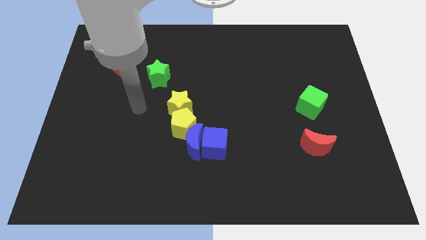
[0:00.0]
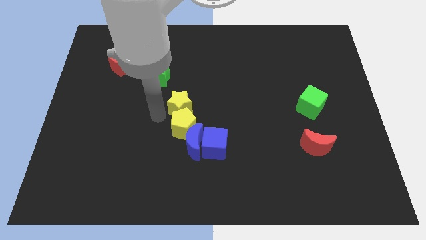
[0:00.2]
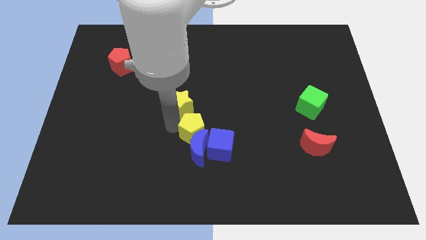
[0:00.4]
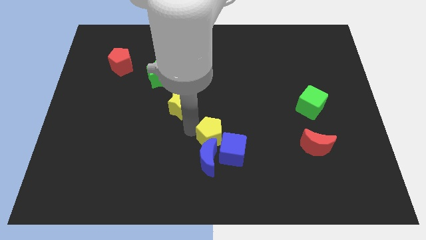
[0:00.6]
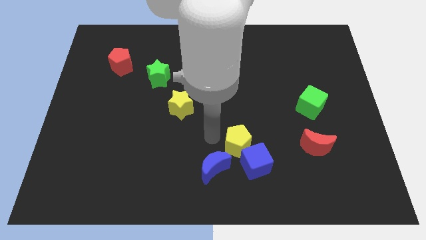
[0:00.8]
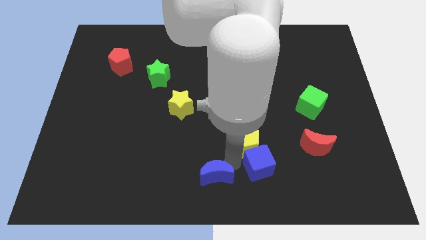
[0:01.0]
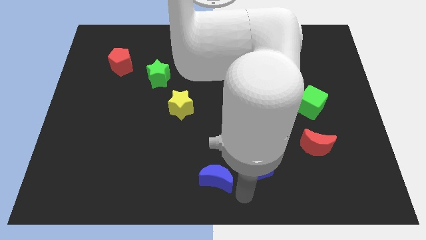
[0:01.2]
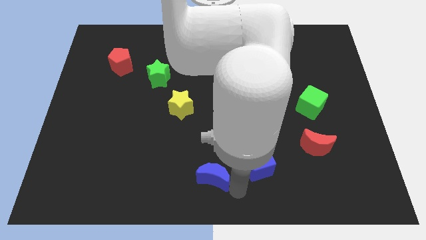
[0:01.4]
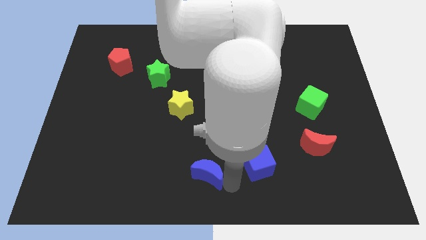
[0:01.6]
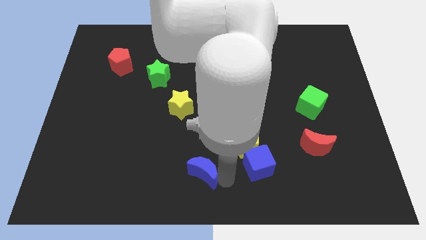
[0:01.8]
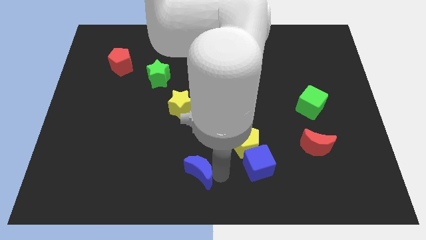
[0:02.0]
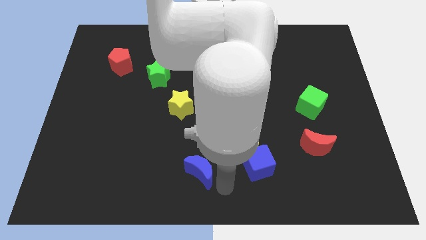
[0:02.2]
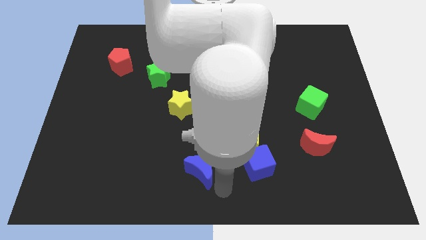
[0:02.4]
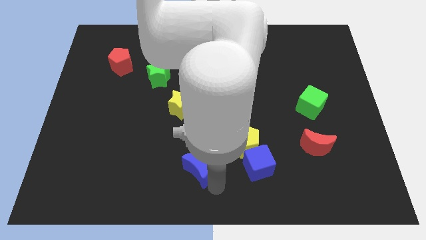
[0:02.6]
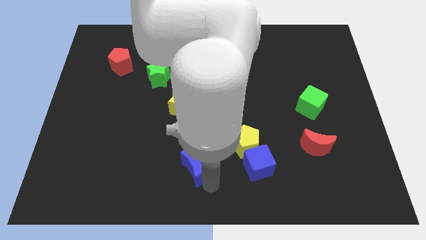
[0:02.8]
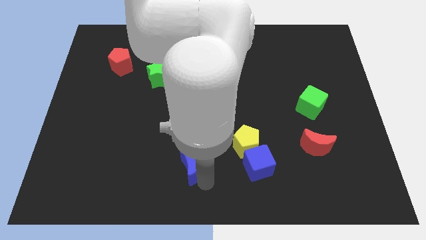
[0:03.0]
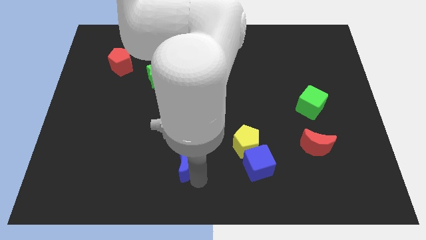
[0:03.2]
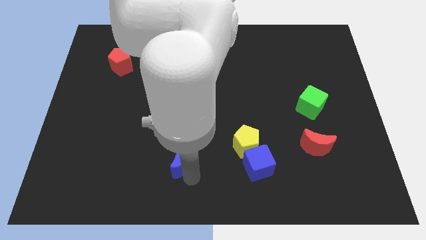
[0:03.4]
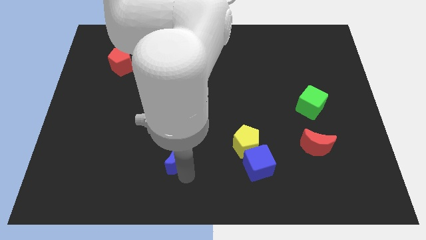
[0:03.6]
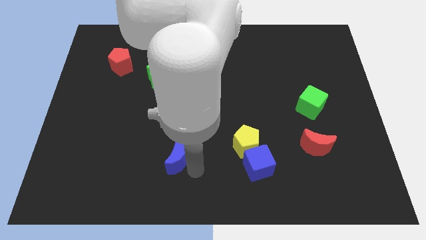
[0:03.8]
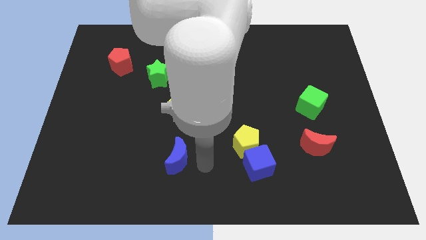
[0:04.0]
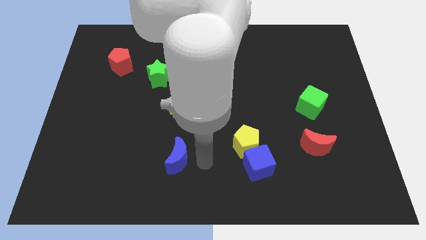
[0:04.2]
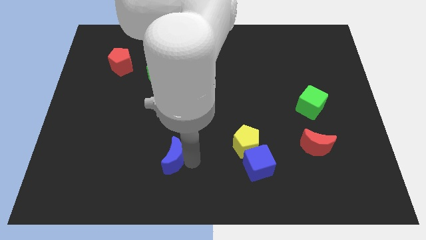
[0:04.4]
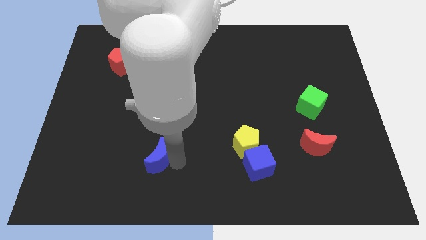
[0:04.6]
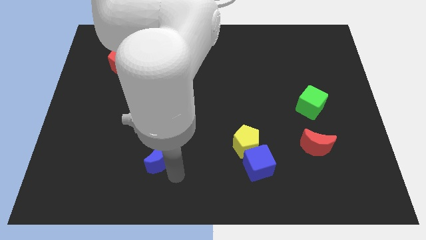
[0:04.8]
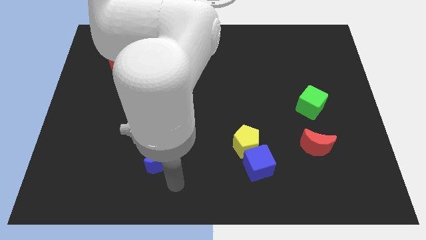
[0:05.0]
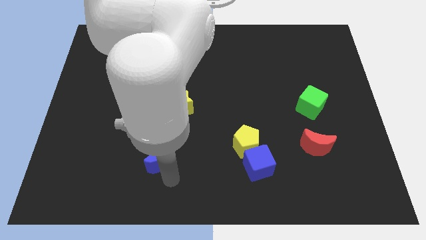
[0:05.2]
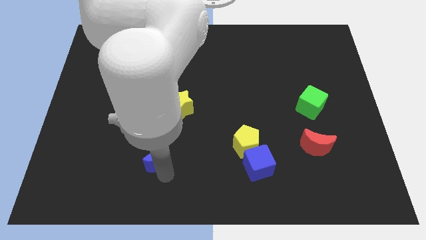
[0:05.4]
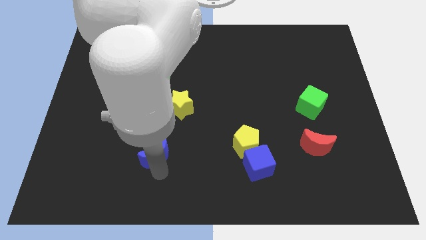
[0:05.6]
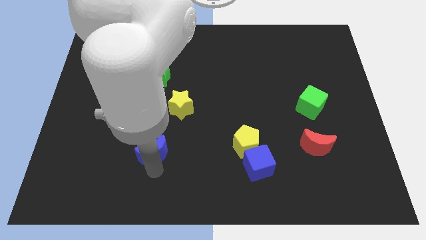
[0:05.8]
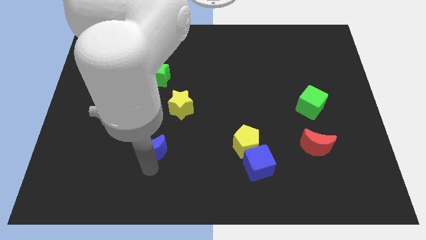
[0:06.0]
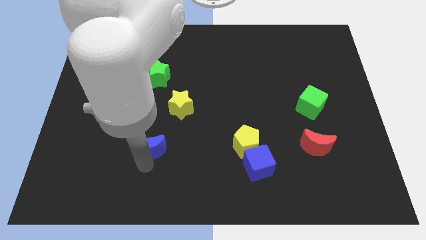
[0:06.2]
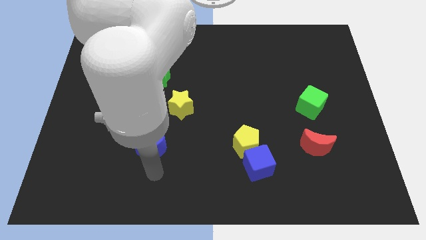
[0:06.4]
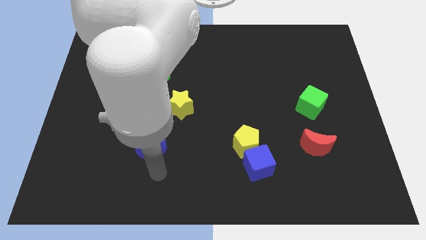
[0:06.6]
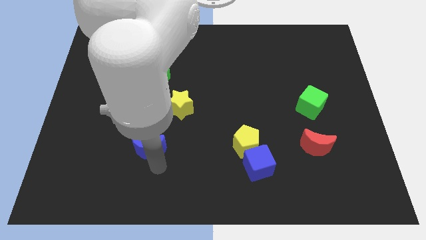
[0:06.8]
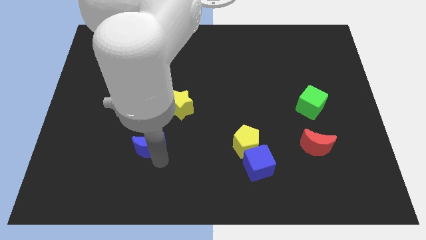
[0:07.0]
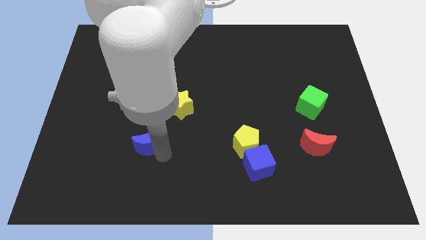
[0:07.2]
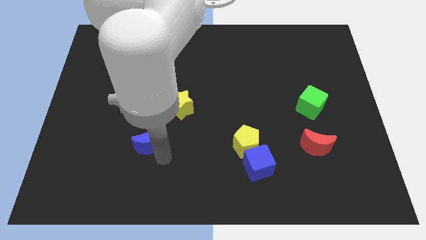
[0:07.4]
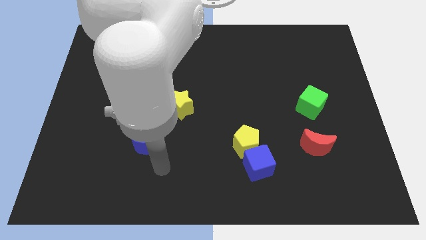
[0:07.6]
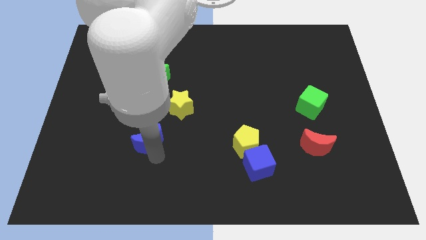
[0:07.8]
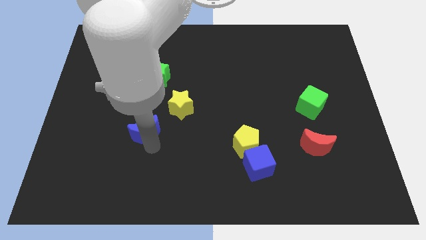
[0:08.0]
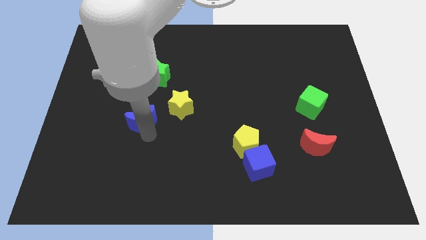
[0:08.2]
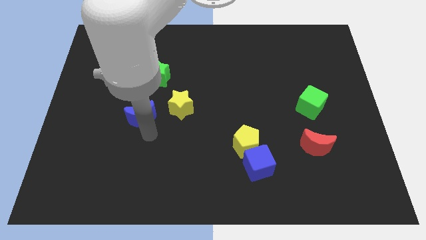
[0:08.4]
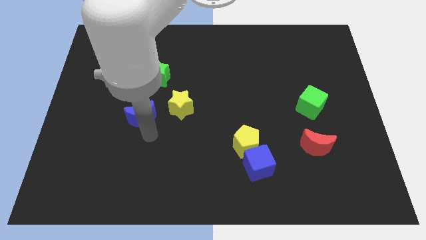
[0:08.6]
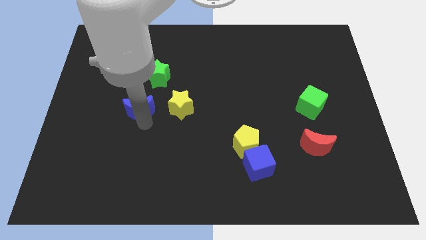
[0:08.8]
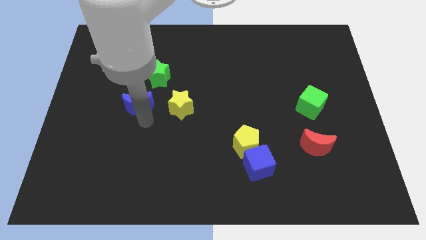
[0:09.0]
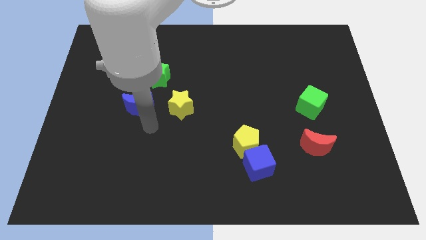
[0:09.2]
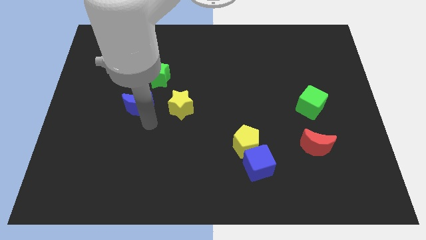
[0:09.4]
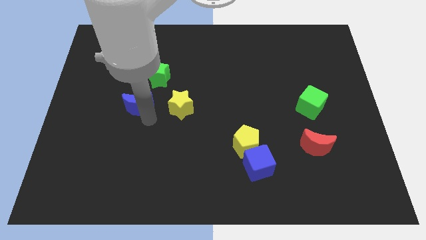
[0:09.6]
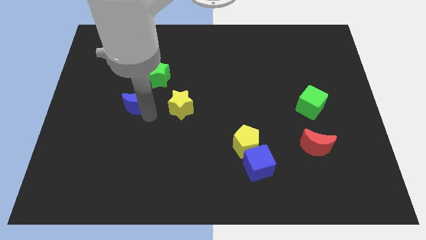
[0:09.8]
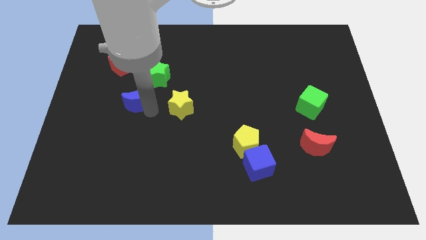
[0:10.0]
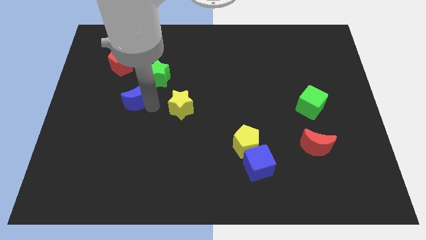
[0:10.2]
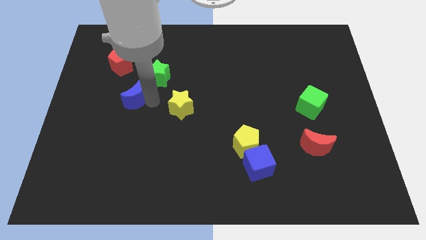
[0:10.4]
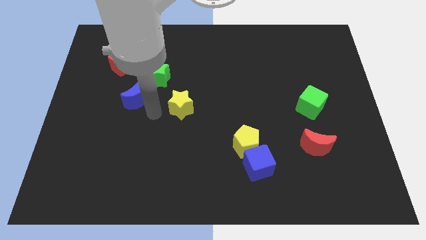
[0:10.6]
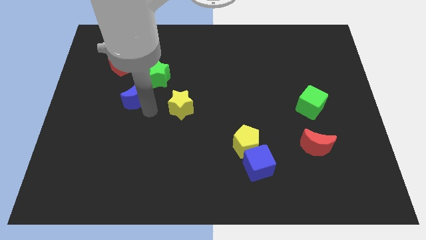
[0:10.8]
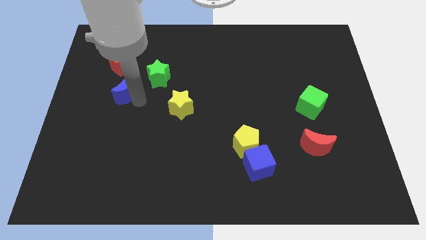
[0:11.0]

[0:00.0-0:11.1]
put the blue moon just left of the green star

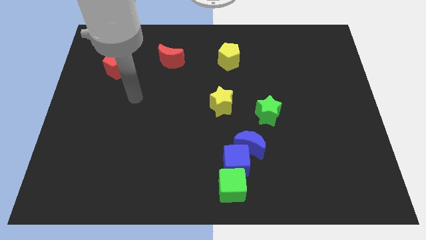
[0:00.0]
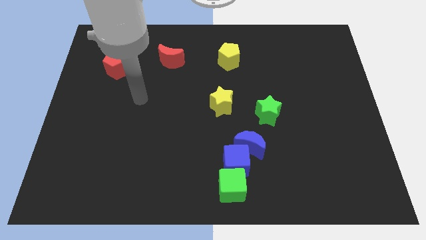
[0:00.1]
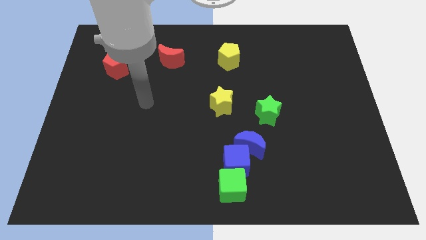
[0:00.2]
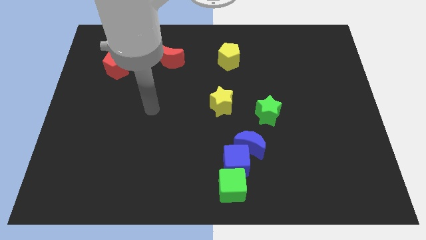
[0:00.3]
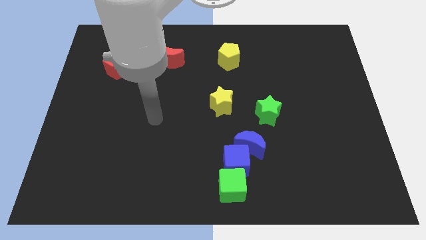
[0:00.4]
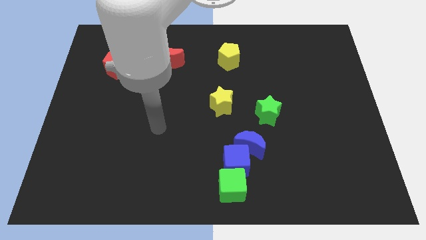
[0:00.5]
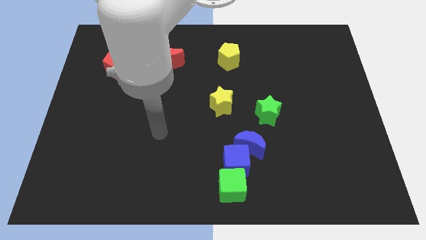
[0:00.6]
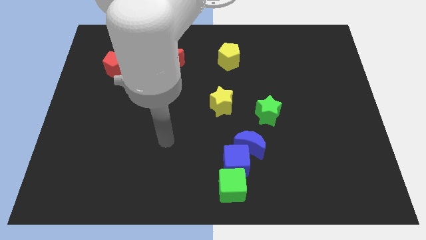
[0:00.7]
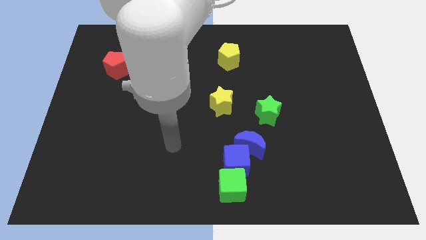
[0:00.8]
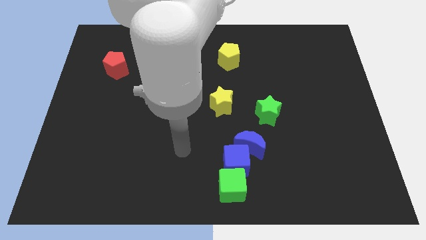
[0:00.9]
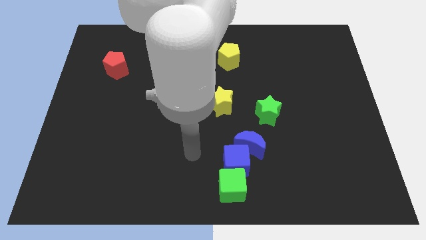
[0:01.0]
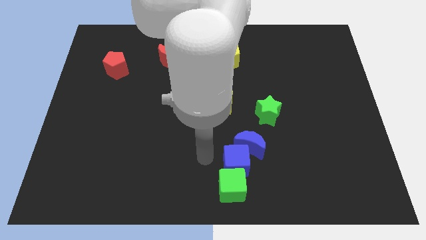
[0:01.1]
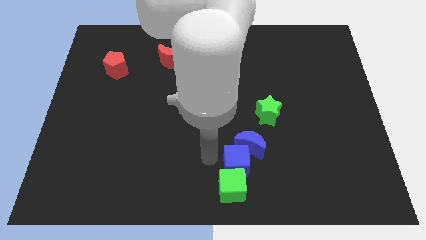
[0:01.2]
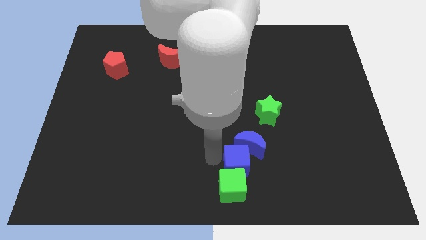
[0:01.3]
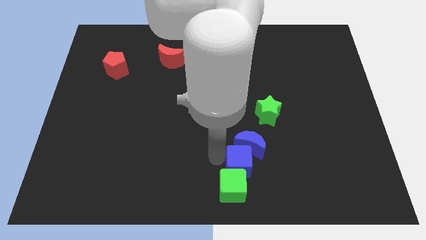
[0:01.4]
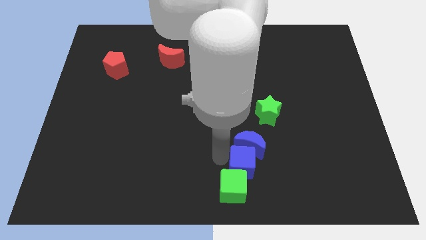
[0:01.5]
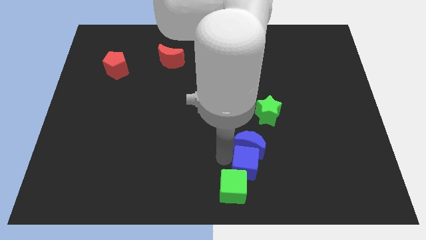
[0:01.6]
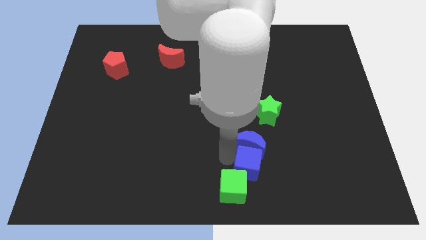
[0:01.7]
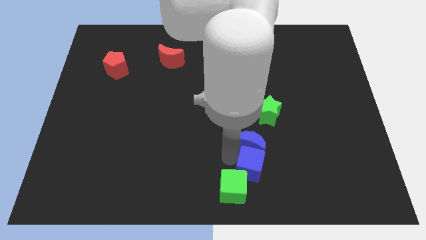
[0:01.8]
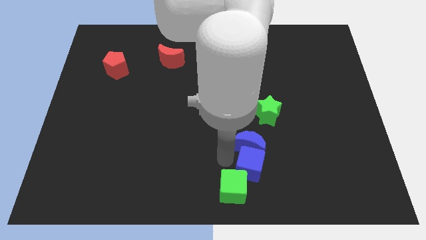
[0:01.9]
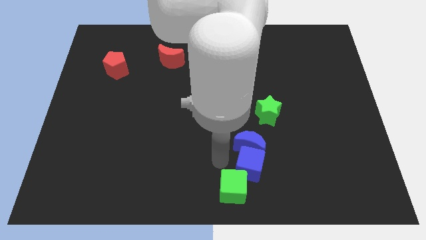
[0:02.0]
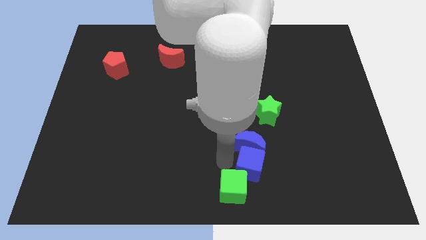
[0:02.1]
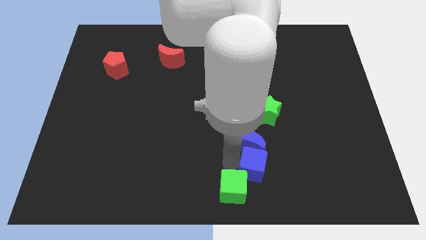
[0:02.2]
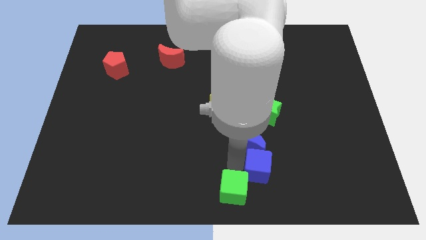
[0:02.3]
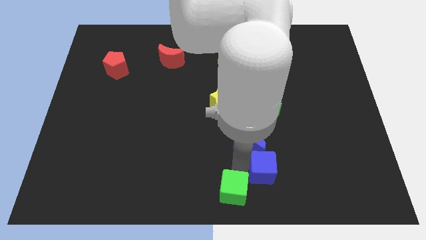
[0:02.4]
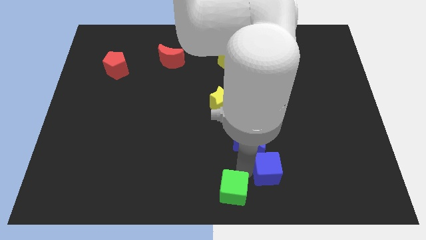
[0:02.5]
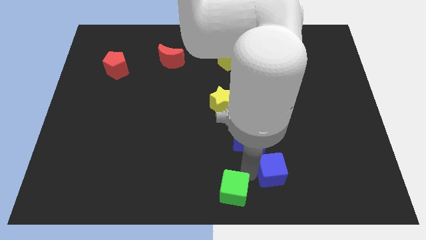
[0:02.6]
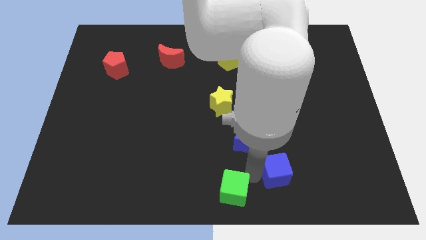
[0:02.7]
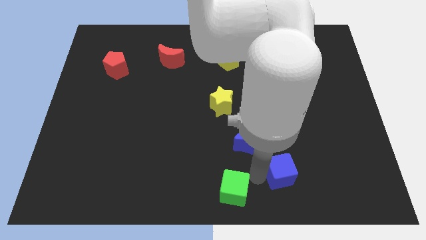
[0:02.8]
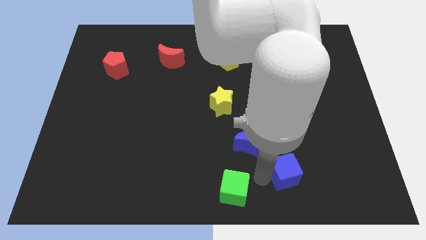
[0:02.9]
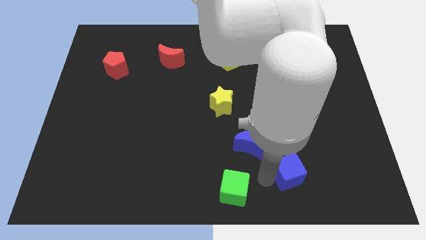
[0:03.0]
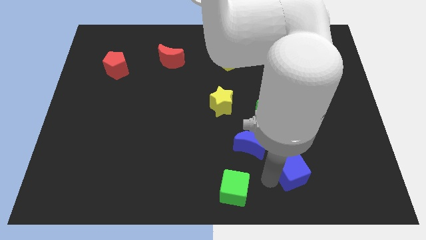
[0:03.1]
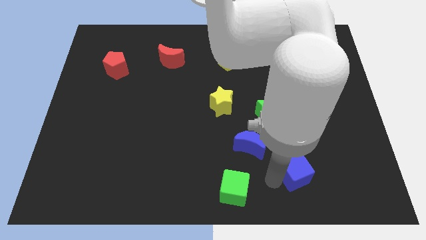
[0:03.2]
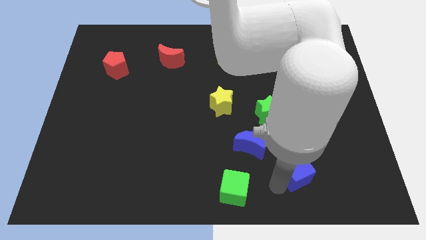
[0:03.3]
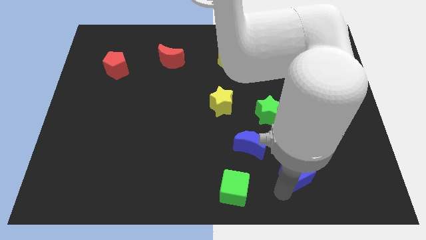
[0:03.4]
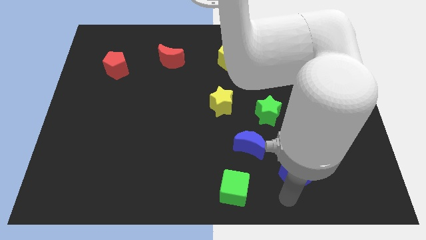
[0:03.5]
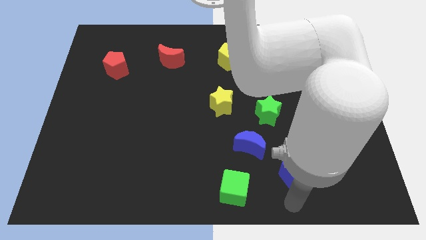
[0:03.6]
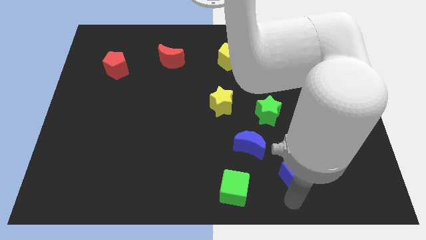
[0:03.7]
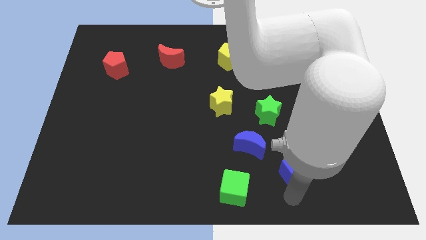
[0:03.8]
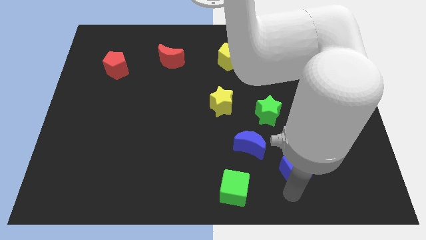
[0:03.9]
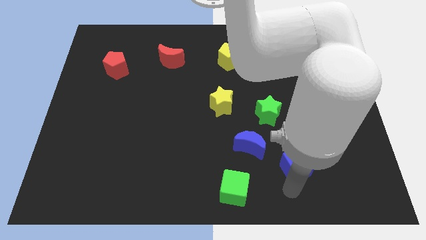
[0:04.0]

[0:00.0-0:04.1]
put the blue cube to the right of the blue moon
